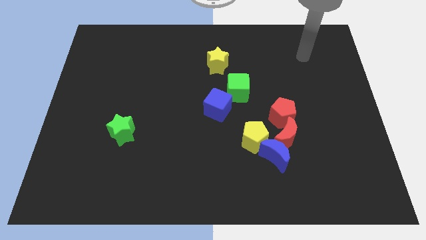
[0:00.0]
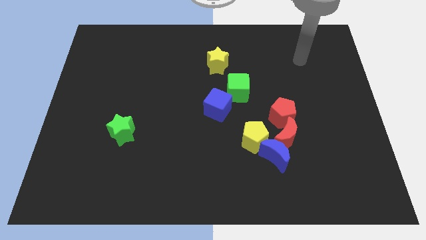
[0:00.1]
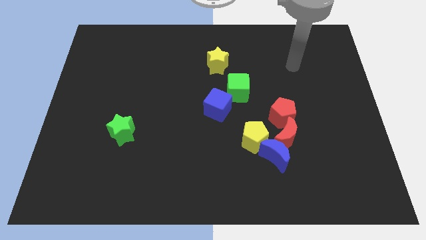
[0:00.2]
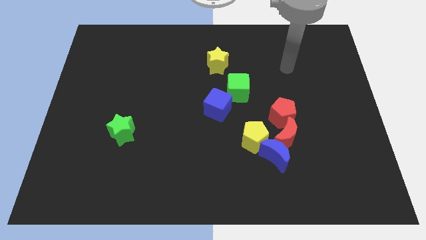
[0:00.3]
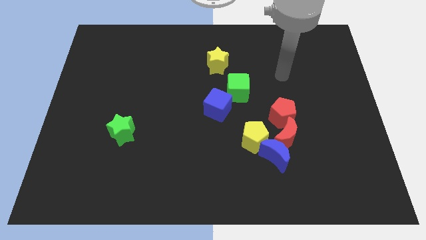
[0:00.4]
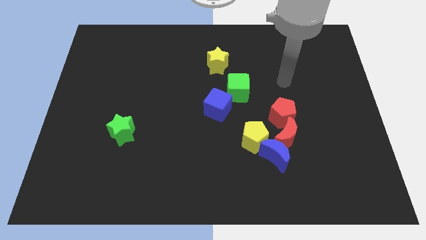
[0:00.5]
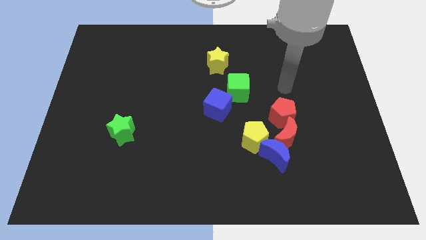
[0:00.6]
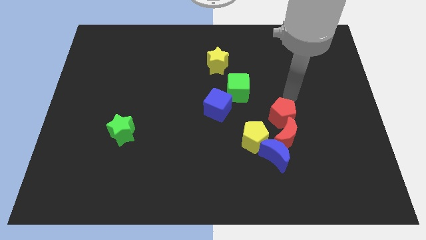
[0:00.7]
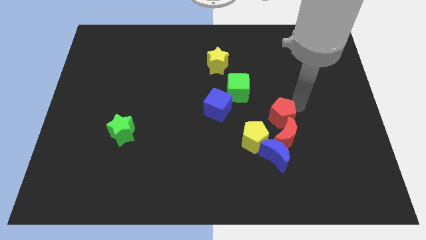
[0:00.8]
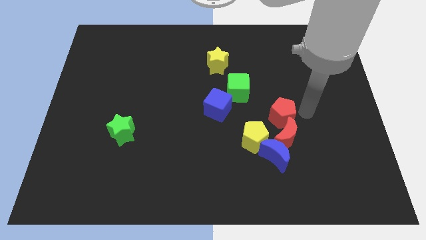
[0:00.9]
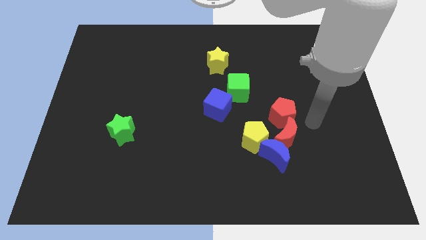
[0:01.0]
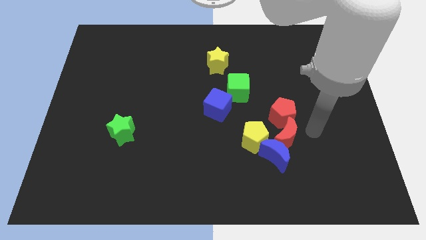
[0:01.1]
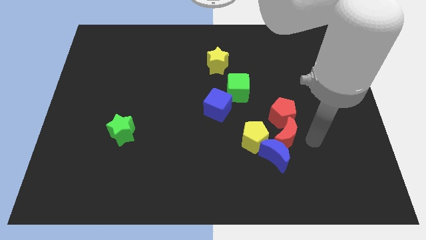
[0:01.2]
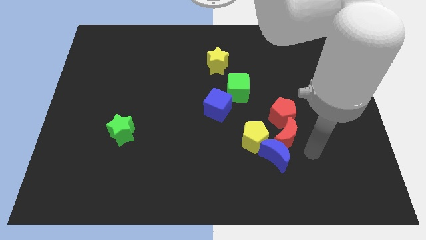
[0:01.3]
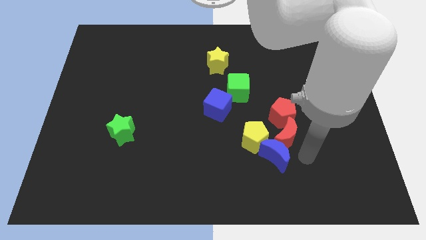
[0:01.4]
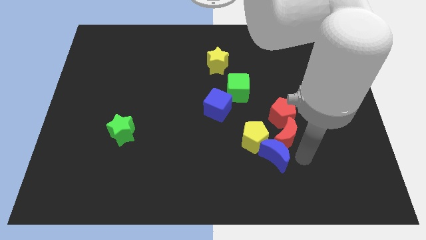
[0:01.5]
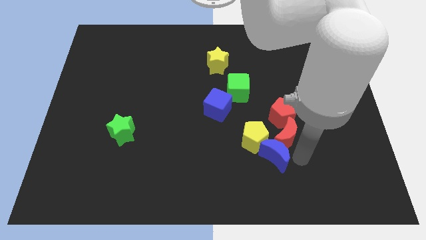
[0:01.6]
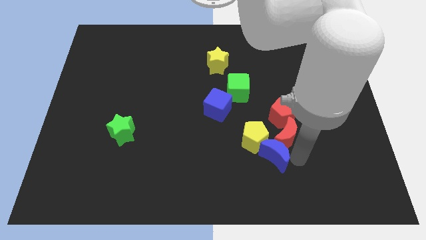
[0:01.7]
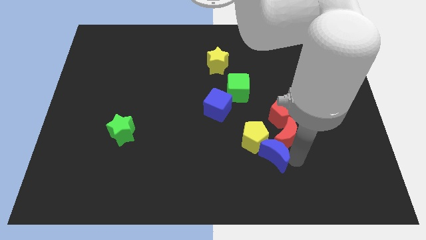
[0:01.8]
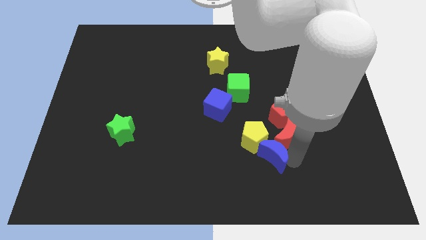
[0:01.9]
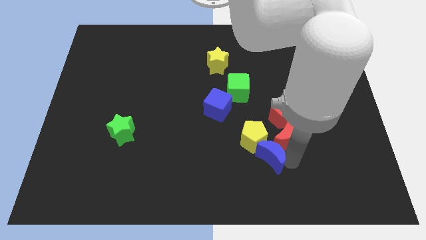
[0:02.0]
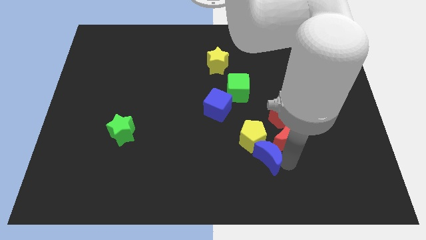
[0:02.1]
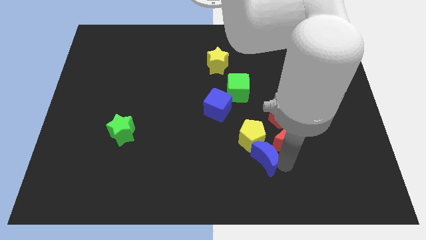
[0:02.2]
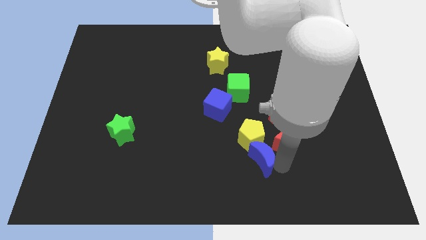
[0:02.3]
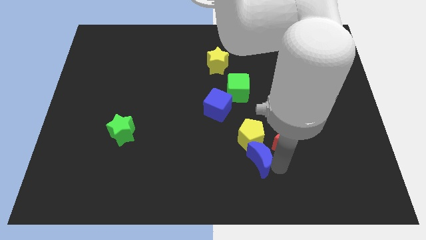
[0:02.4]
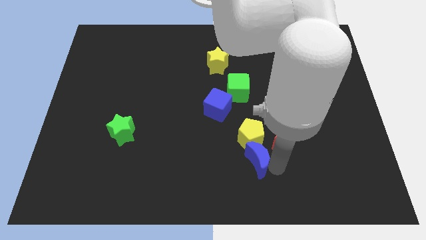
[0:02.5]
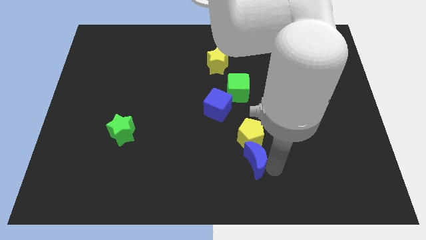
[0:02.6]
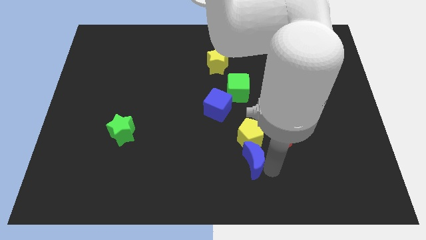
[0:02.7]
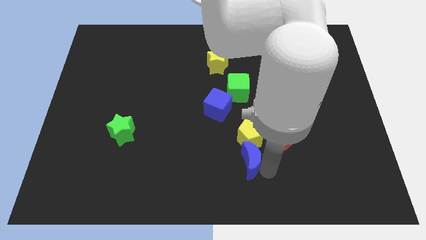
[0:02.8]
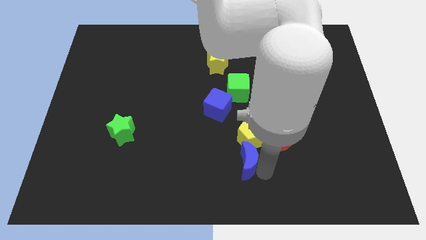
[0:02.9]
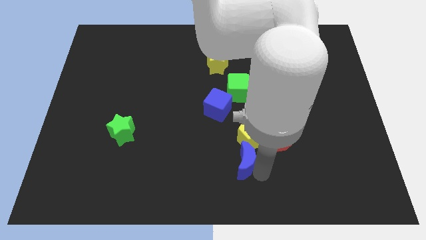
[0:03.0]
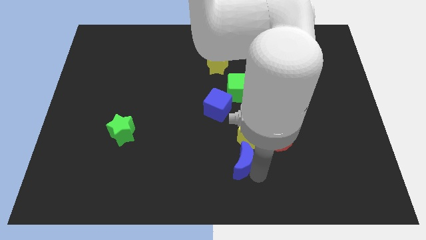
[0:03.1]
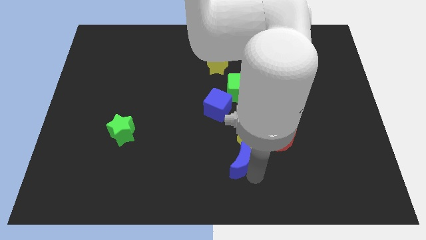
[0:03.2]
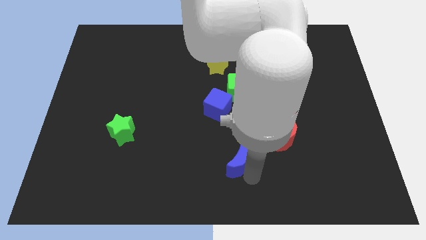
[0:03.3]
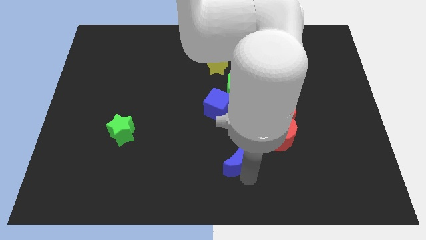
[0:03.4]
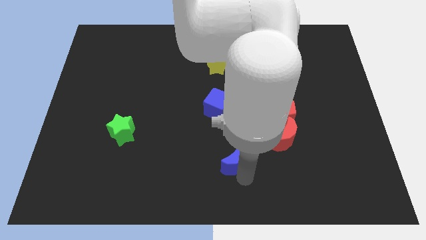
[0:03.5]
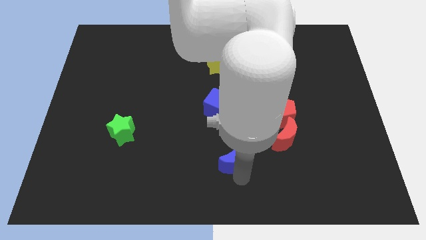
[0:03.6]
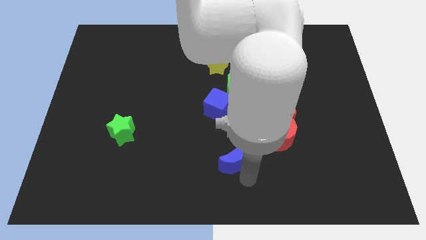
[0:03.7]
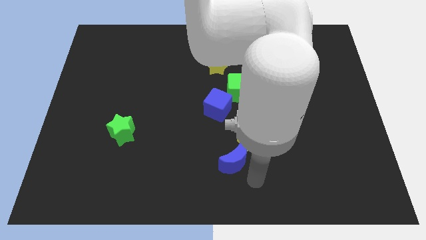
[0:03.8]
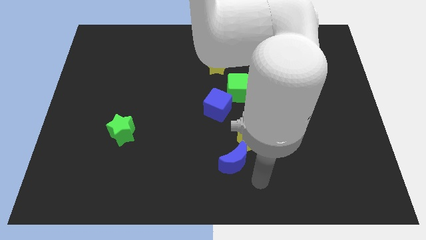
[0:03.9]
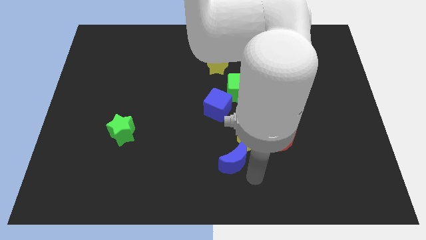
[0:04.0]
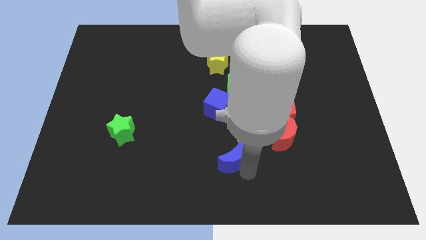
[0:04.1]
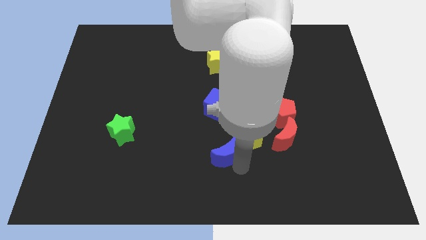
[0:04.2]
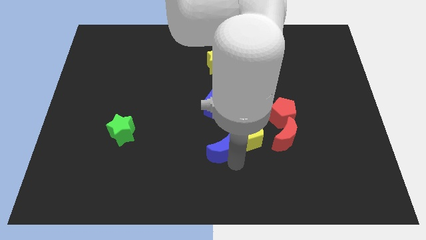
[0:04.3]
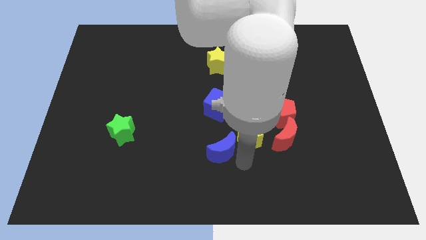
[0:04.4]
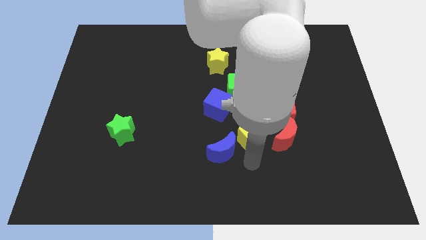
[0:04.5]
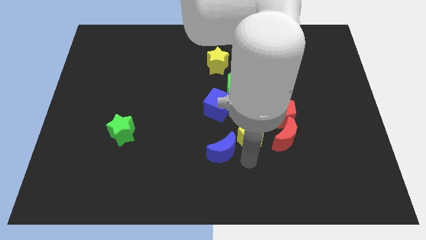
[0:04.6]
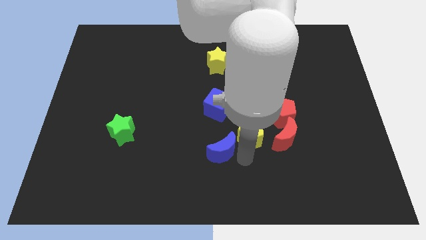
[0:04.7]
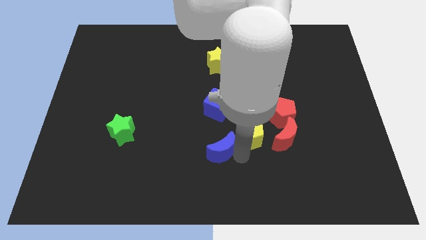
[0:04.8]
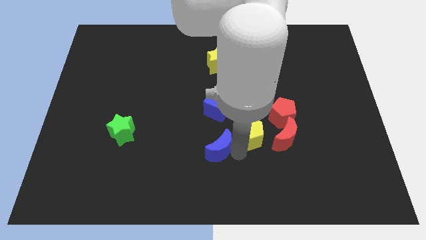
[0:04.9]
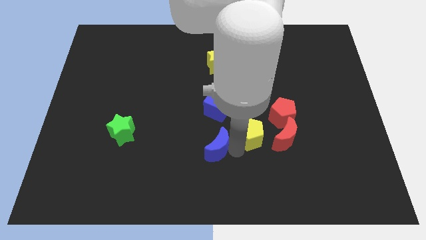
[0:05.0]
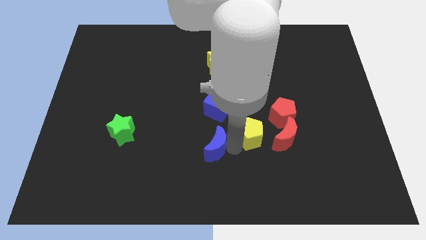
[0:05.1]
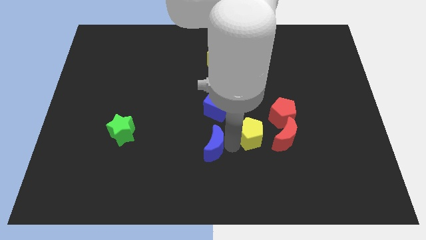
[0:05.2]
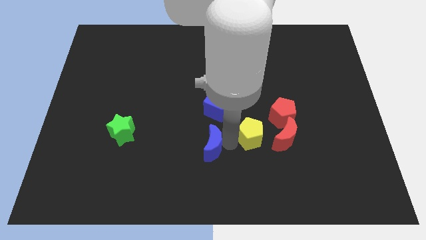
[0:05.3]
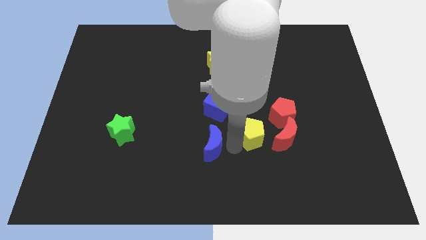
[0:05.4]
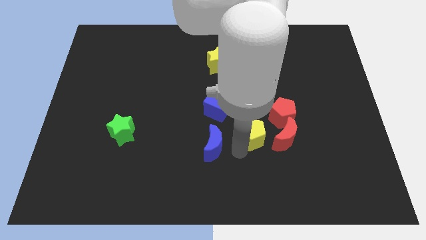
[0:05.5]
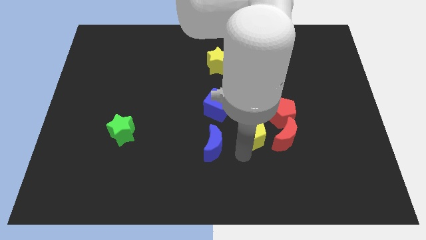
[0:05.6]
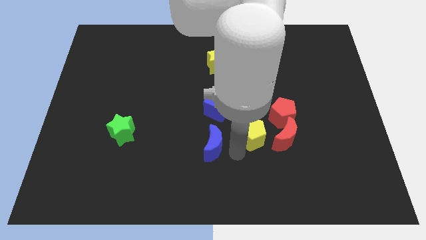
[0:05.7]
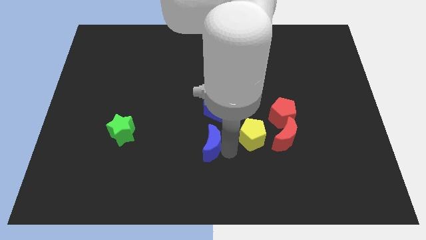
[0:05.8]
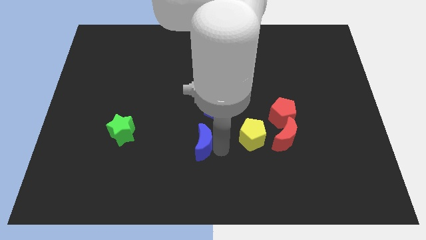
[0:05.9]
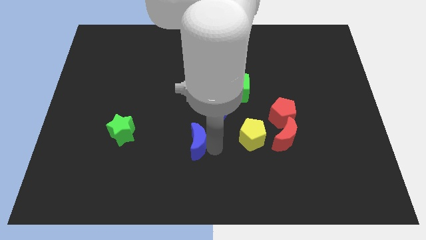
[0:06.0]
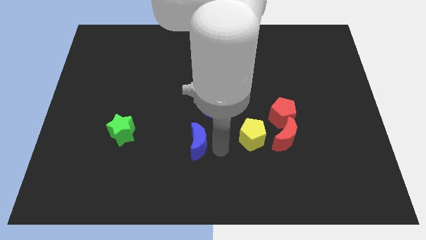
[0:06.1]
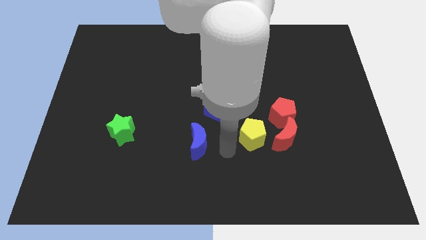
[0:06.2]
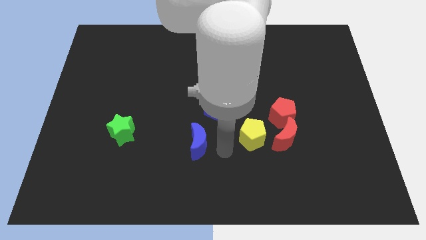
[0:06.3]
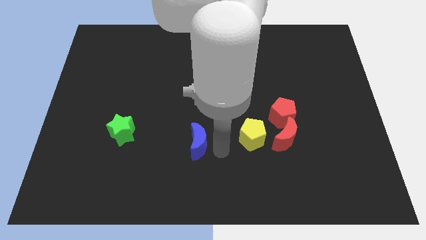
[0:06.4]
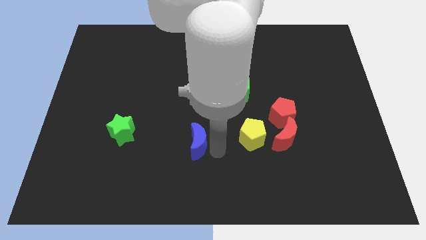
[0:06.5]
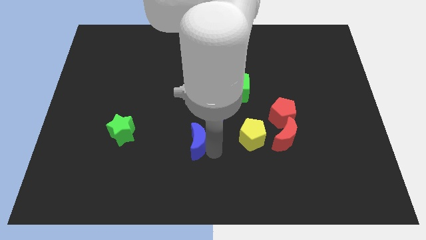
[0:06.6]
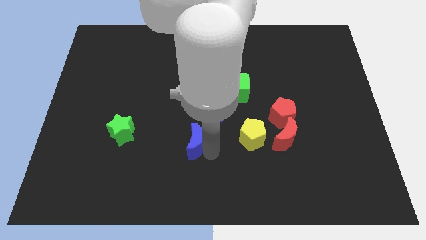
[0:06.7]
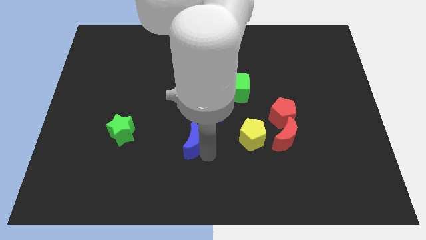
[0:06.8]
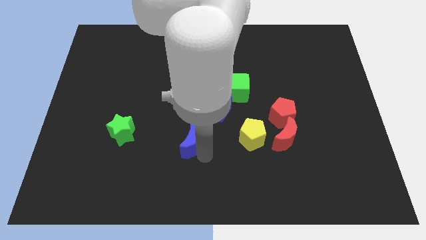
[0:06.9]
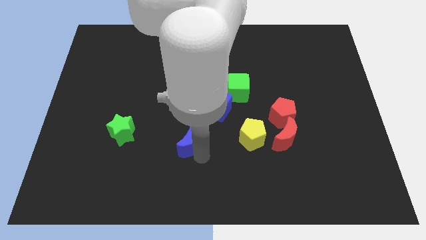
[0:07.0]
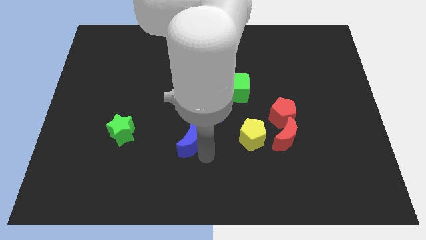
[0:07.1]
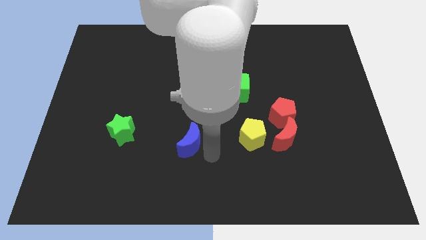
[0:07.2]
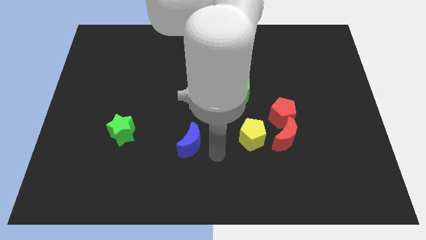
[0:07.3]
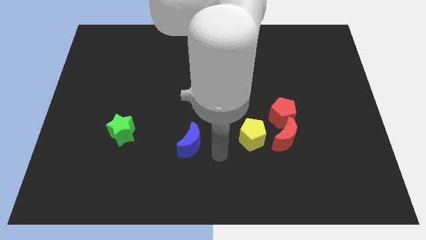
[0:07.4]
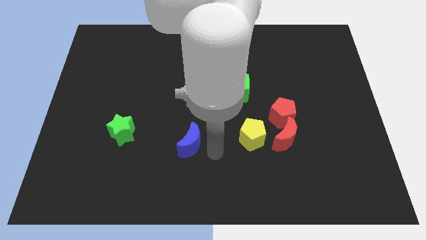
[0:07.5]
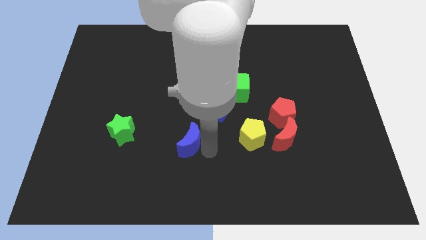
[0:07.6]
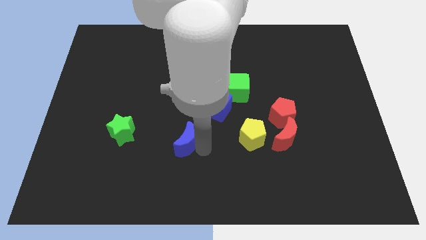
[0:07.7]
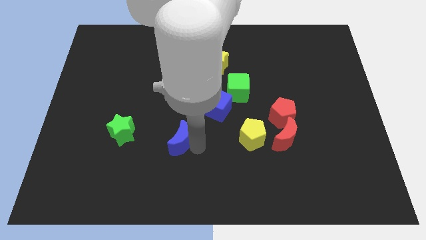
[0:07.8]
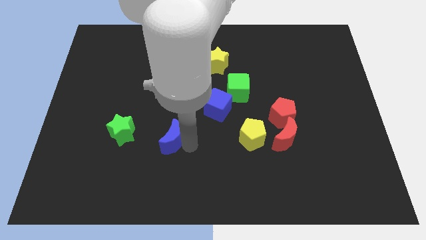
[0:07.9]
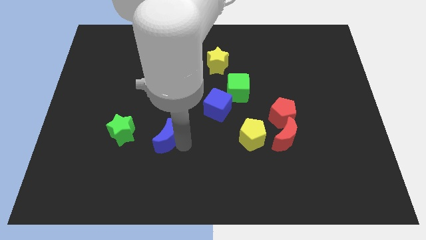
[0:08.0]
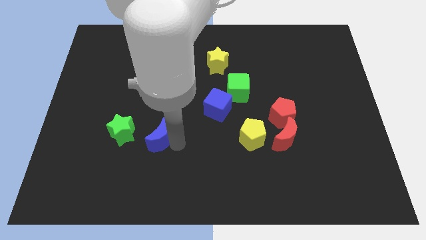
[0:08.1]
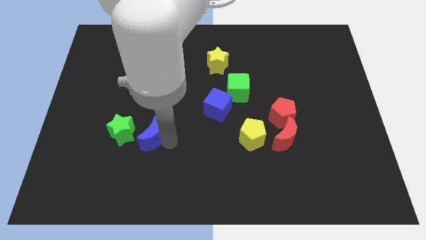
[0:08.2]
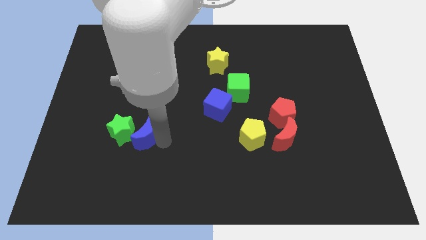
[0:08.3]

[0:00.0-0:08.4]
put the blue moon next to the green star
